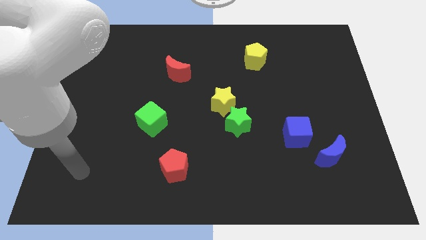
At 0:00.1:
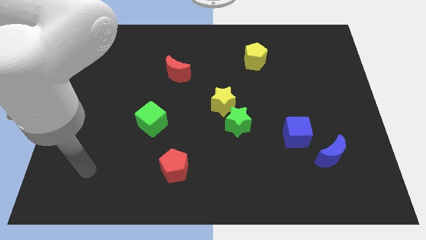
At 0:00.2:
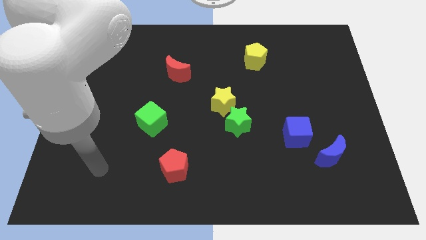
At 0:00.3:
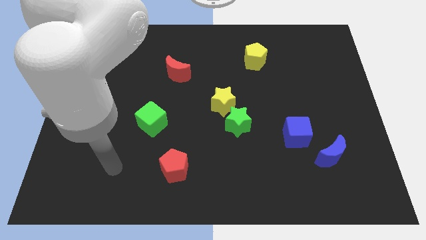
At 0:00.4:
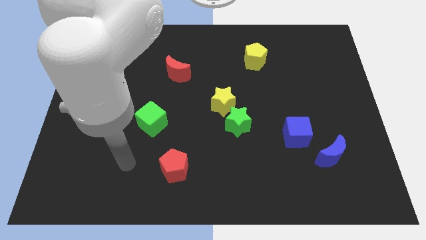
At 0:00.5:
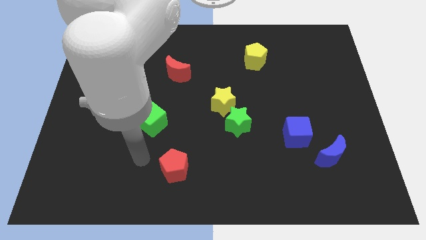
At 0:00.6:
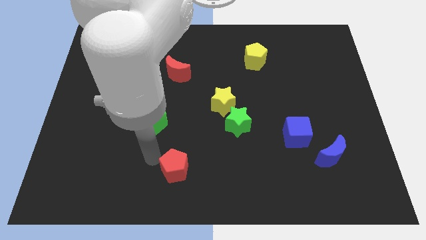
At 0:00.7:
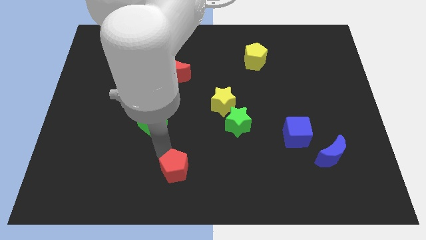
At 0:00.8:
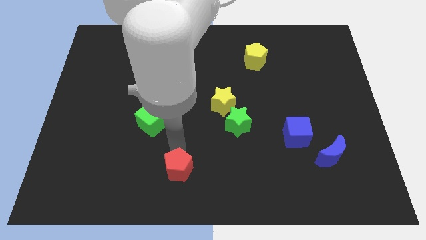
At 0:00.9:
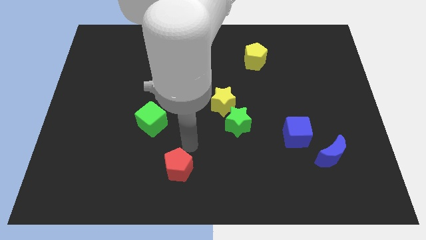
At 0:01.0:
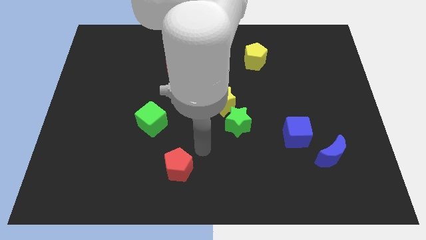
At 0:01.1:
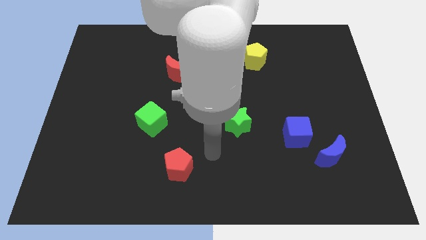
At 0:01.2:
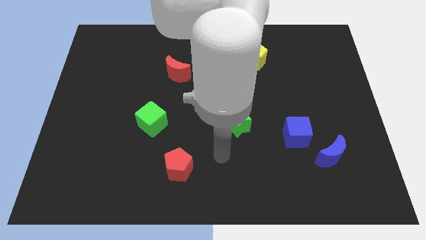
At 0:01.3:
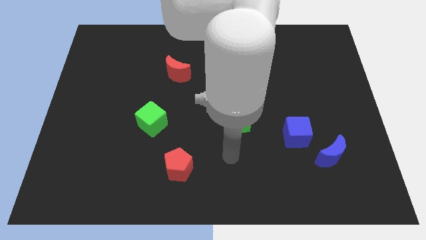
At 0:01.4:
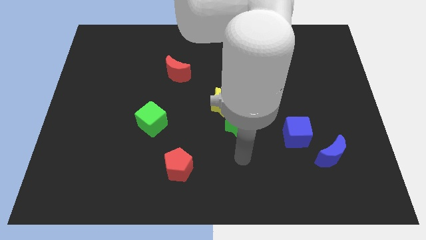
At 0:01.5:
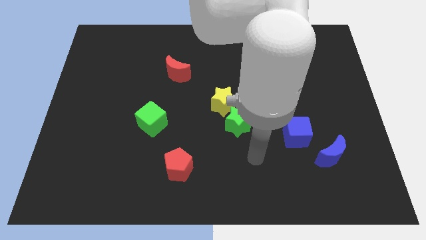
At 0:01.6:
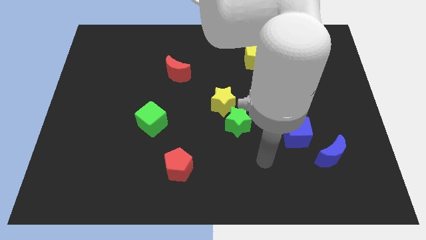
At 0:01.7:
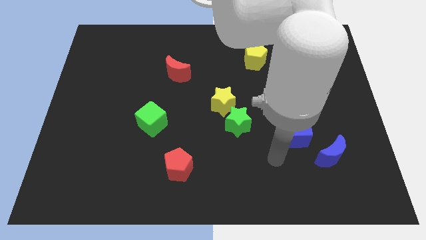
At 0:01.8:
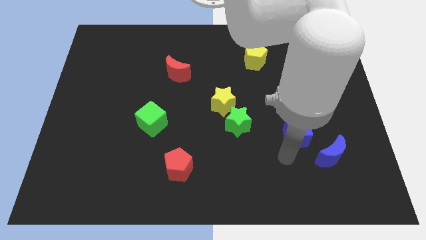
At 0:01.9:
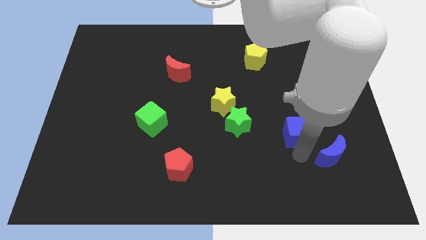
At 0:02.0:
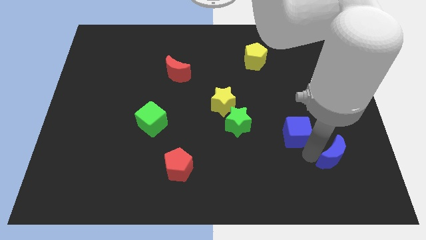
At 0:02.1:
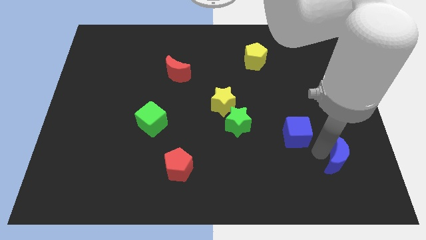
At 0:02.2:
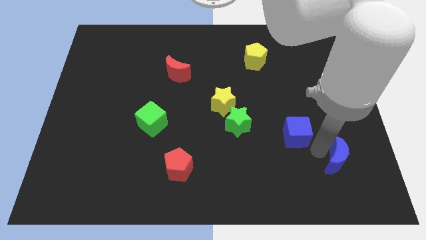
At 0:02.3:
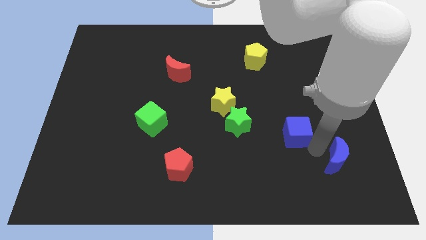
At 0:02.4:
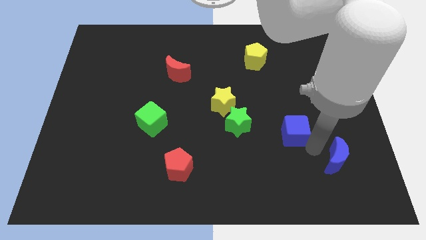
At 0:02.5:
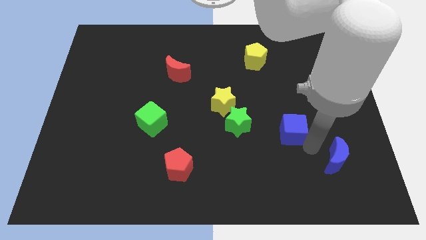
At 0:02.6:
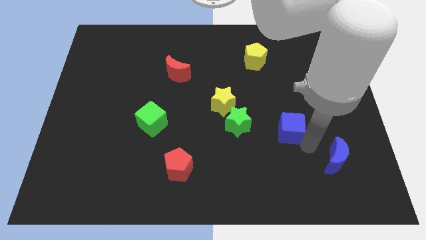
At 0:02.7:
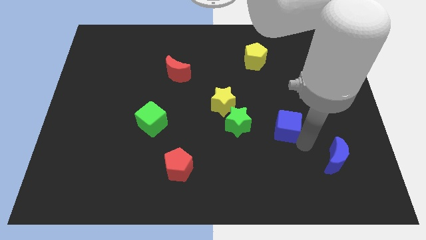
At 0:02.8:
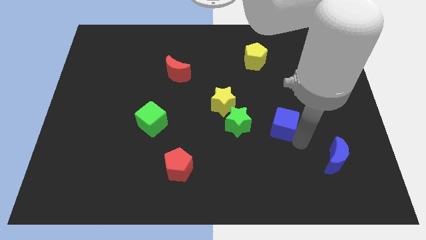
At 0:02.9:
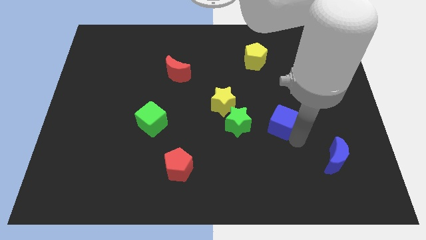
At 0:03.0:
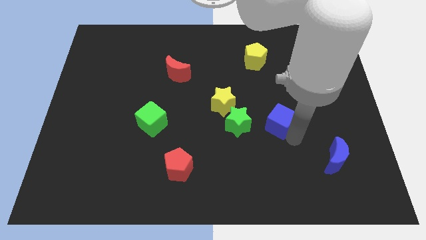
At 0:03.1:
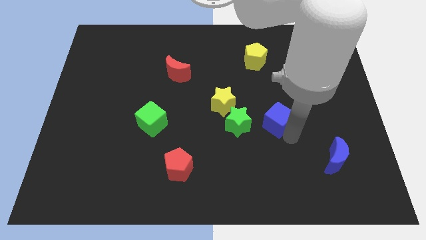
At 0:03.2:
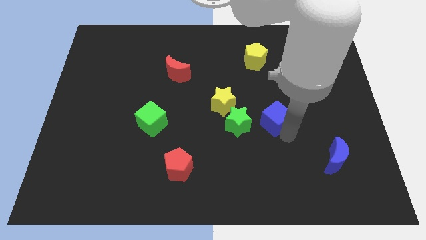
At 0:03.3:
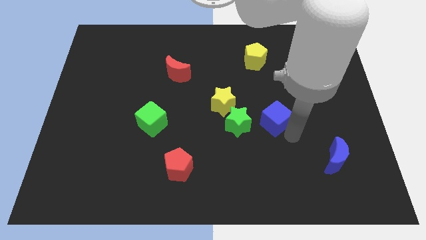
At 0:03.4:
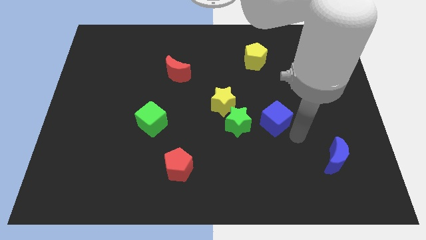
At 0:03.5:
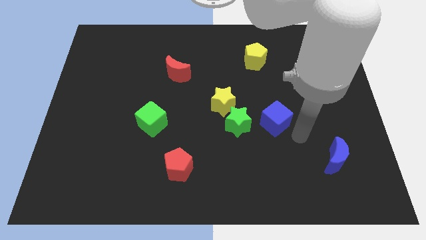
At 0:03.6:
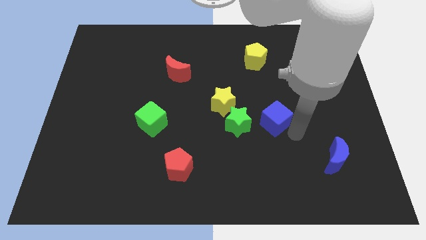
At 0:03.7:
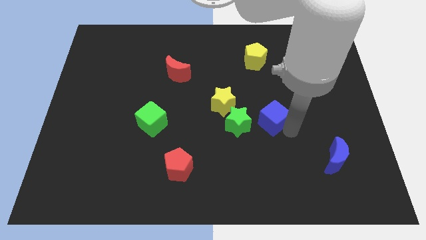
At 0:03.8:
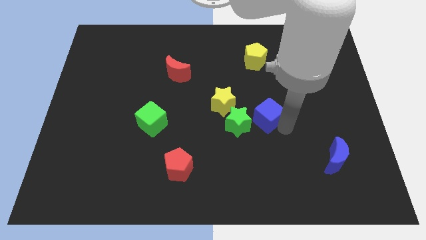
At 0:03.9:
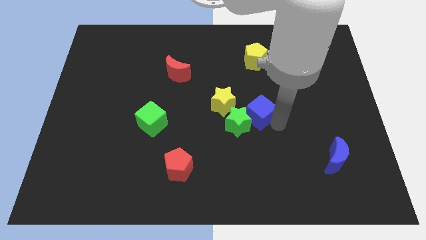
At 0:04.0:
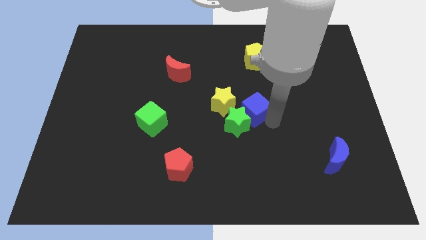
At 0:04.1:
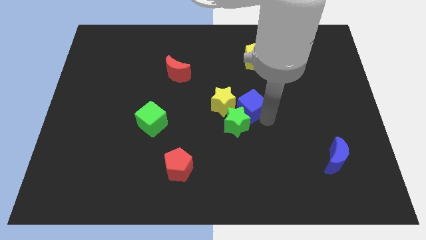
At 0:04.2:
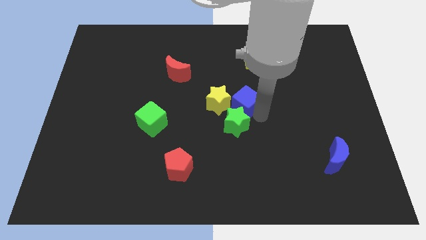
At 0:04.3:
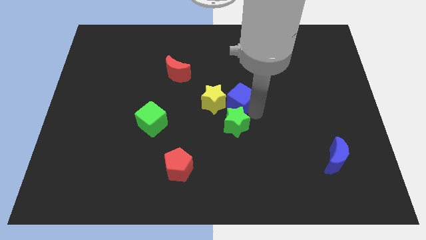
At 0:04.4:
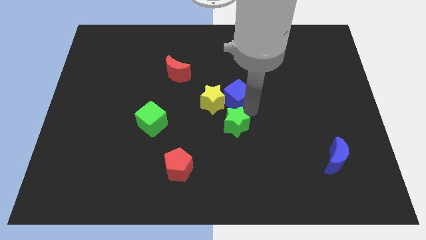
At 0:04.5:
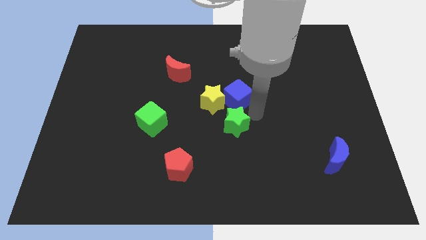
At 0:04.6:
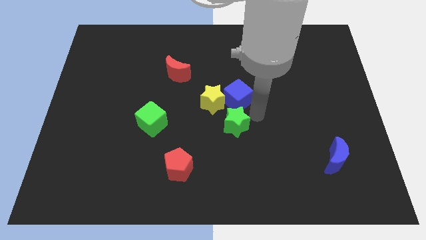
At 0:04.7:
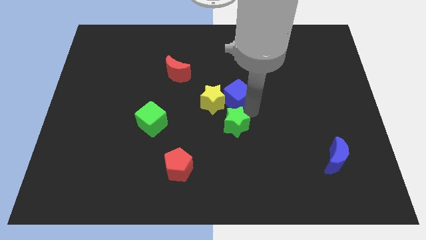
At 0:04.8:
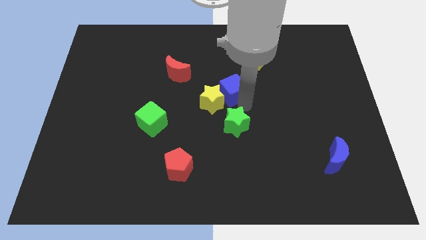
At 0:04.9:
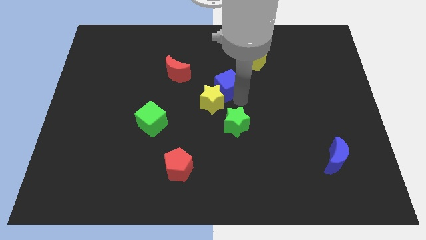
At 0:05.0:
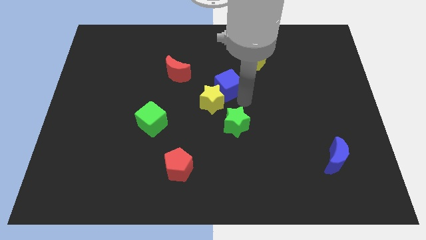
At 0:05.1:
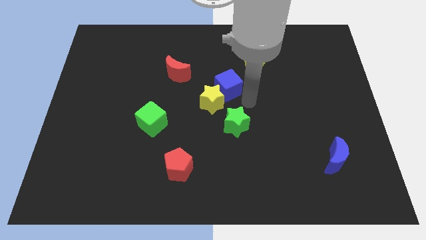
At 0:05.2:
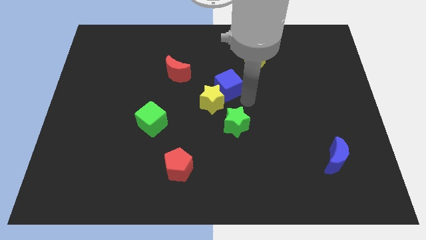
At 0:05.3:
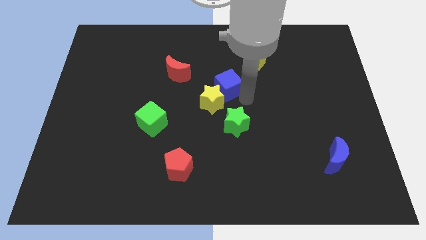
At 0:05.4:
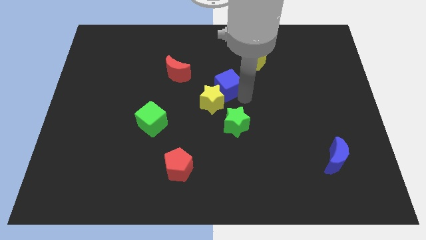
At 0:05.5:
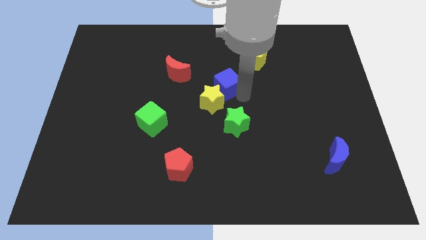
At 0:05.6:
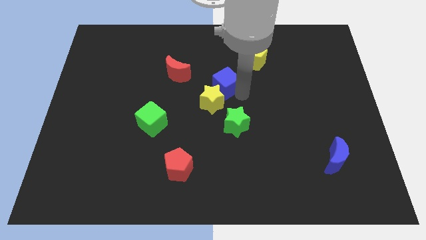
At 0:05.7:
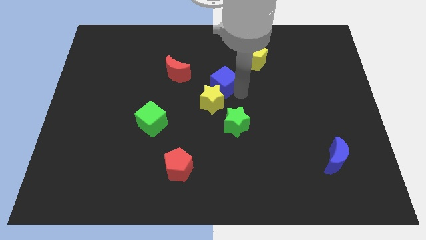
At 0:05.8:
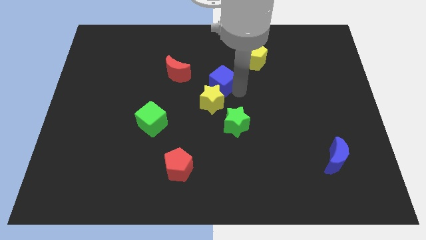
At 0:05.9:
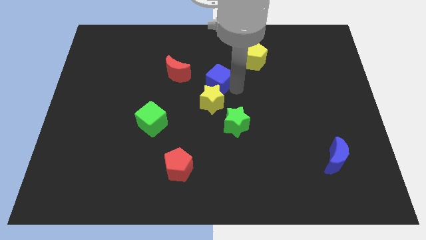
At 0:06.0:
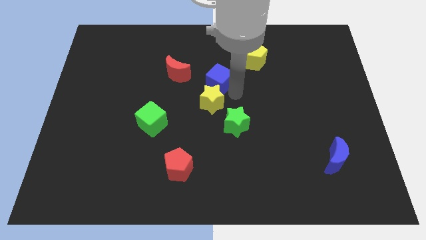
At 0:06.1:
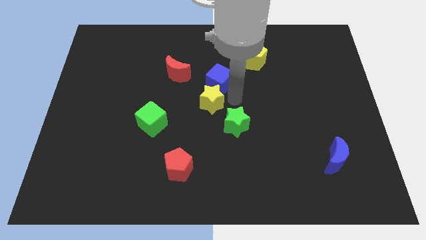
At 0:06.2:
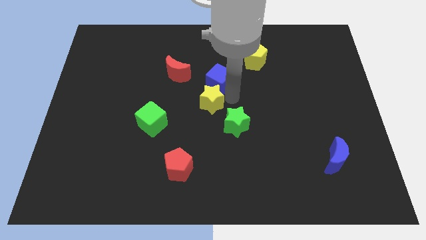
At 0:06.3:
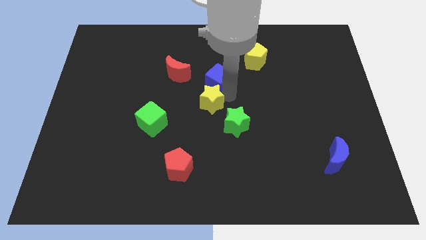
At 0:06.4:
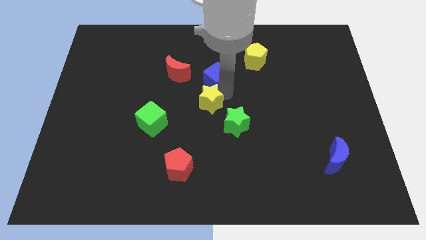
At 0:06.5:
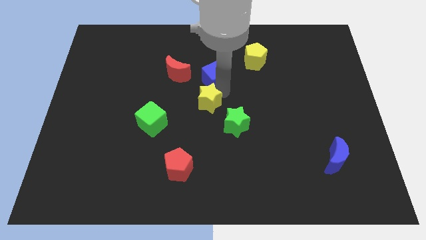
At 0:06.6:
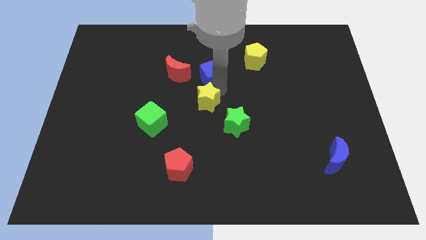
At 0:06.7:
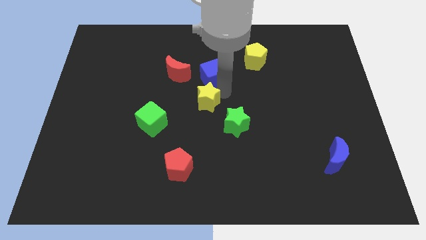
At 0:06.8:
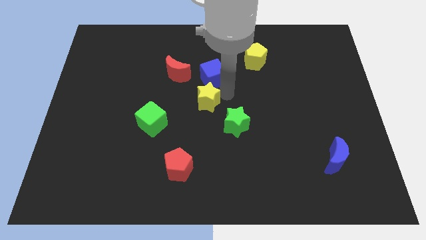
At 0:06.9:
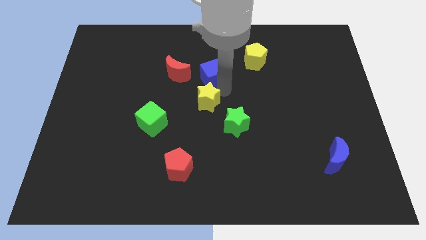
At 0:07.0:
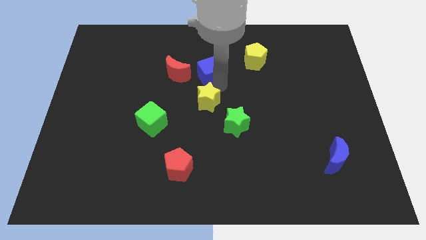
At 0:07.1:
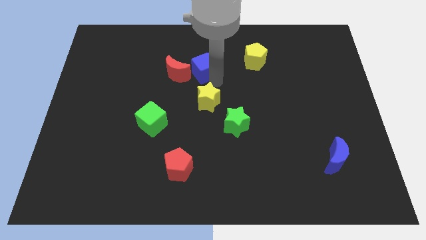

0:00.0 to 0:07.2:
push the blue cube diagonally up and to the right of the red moon
